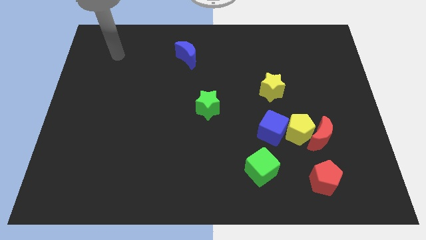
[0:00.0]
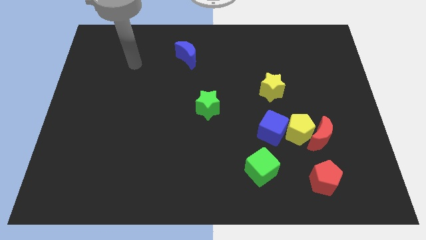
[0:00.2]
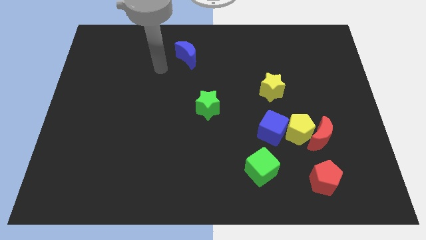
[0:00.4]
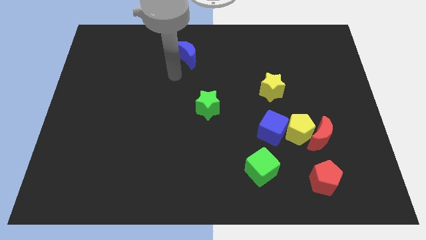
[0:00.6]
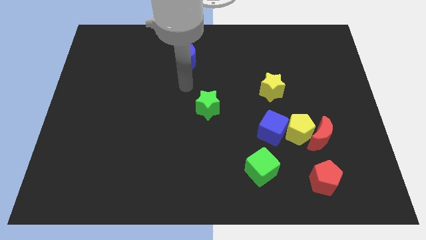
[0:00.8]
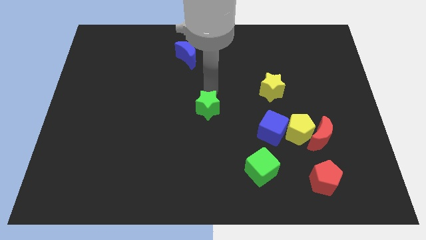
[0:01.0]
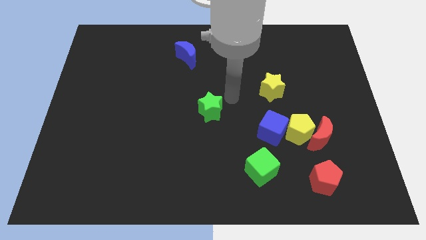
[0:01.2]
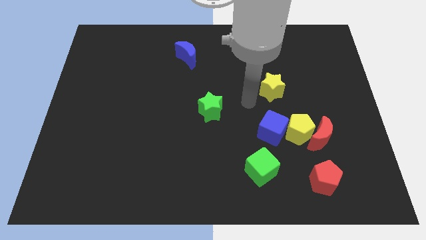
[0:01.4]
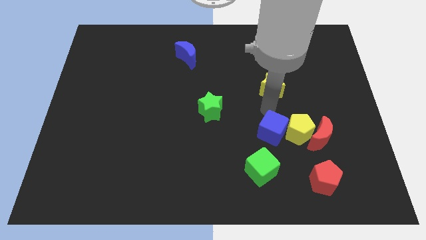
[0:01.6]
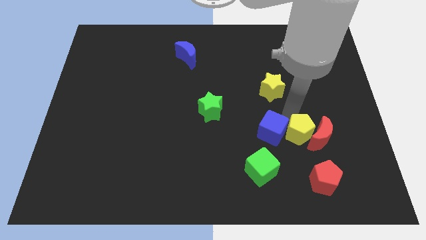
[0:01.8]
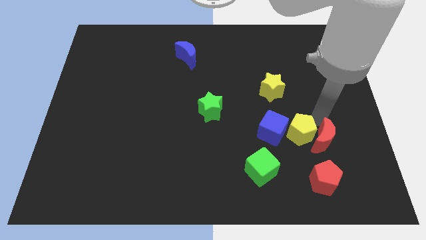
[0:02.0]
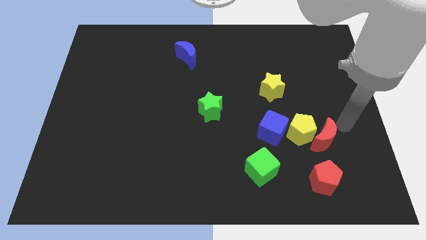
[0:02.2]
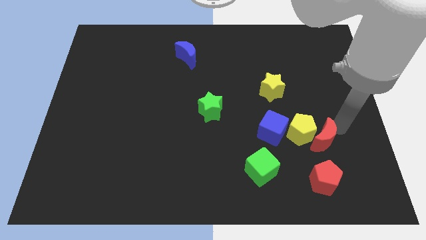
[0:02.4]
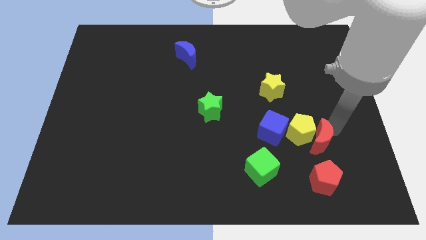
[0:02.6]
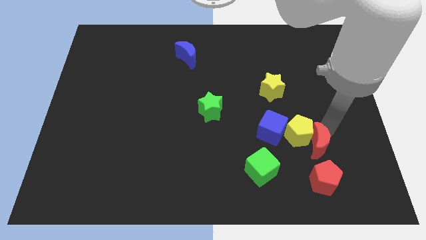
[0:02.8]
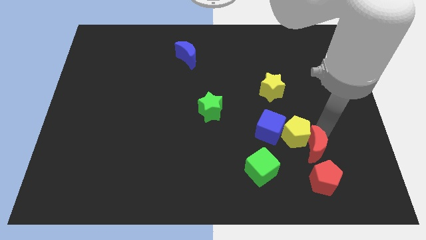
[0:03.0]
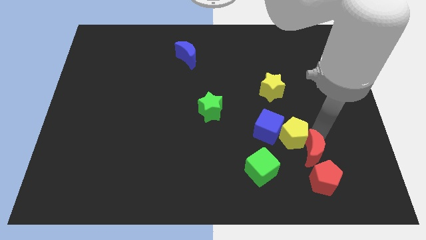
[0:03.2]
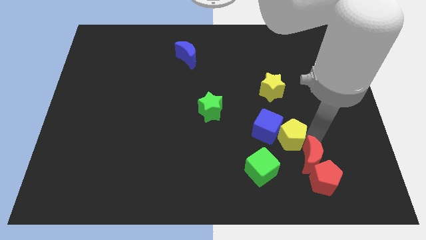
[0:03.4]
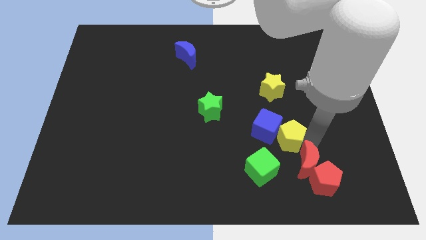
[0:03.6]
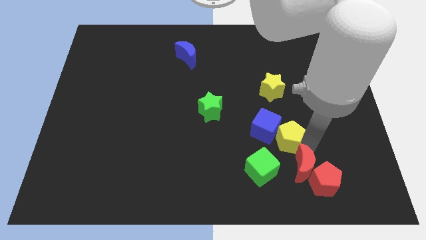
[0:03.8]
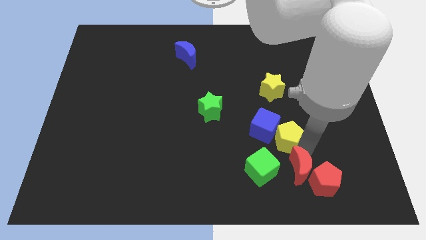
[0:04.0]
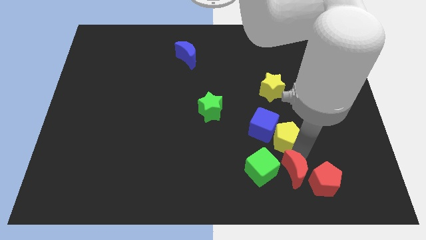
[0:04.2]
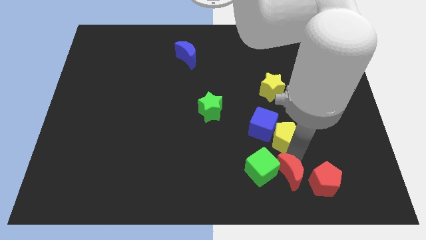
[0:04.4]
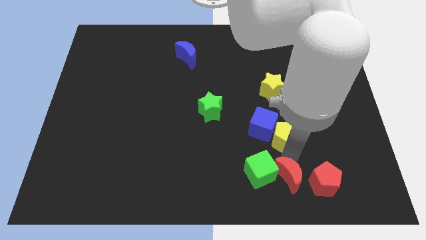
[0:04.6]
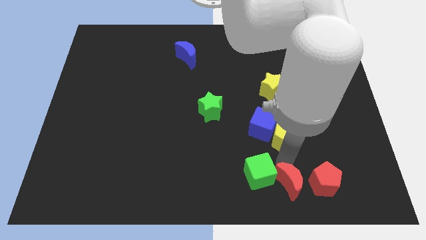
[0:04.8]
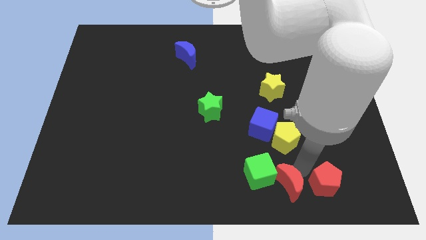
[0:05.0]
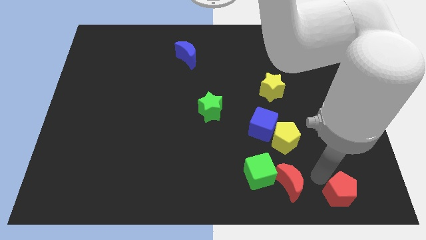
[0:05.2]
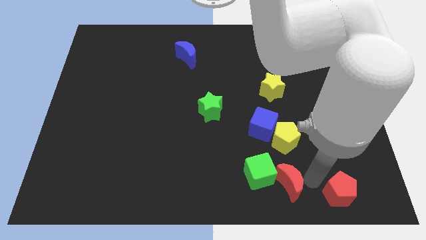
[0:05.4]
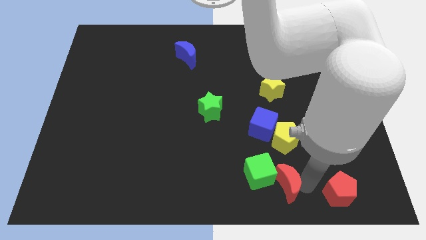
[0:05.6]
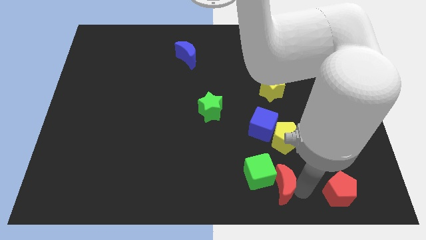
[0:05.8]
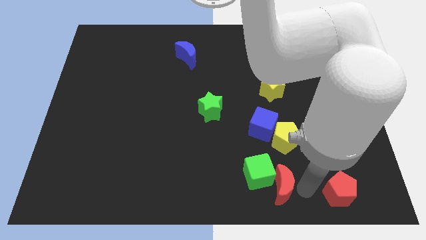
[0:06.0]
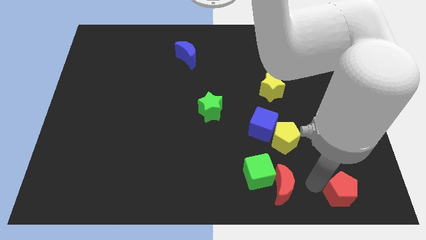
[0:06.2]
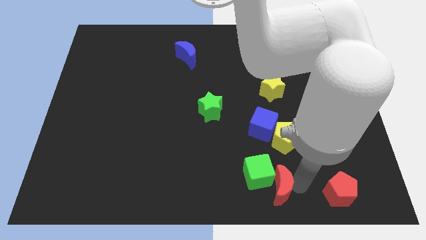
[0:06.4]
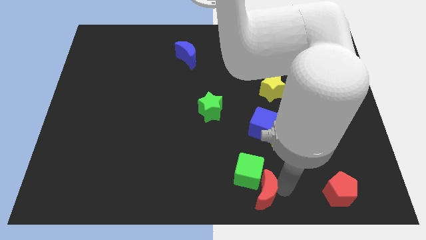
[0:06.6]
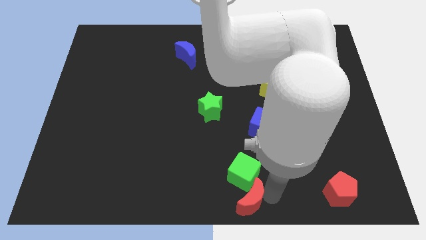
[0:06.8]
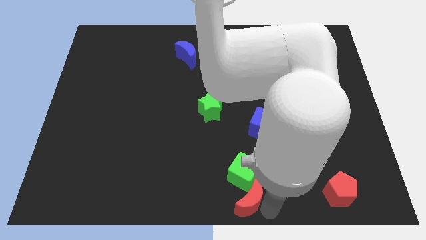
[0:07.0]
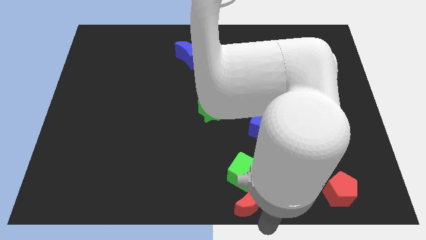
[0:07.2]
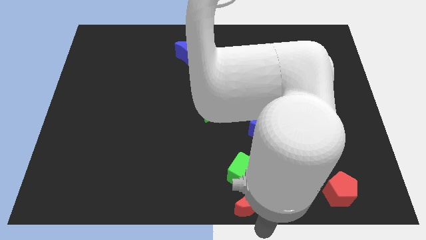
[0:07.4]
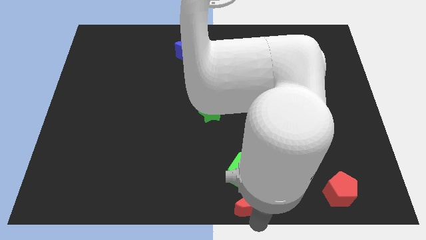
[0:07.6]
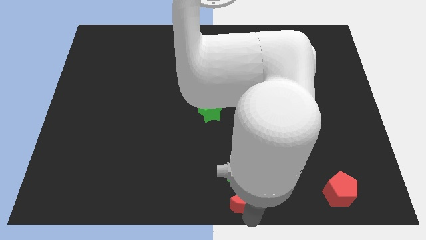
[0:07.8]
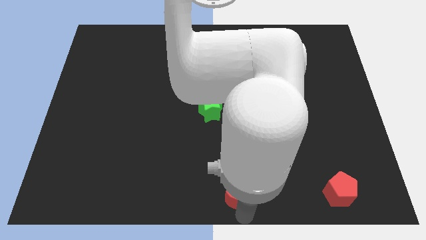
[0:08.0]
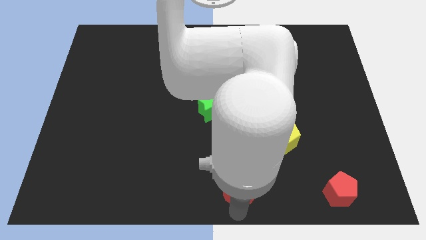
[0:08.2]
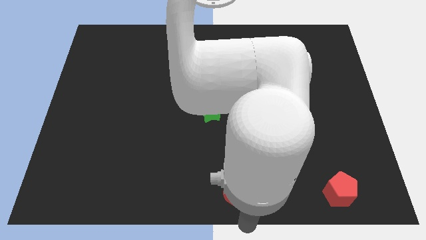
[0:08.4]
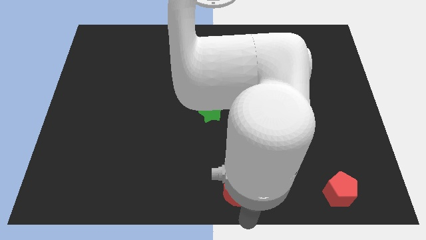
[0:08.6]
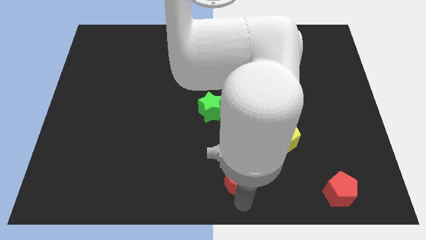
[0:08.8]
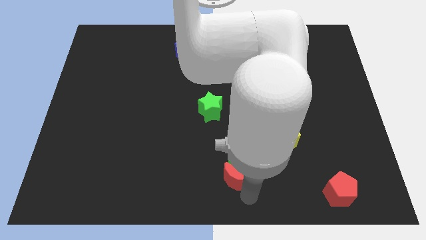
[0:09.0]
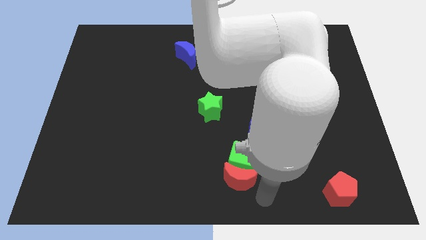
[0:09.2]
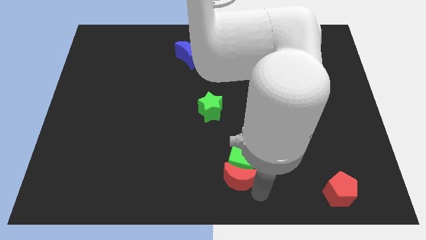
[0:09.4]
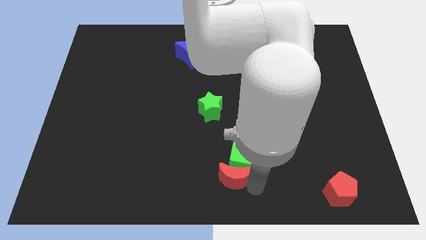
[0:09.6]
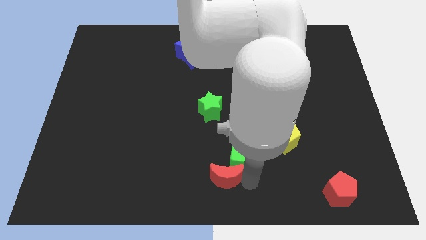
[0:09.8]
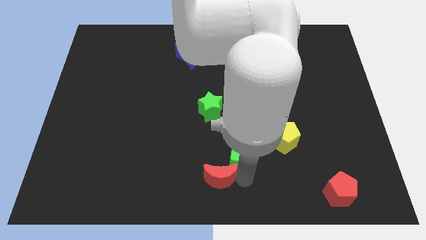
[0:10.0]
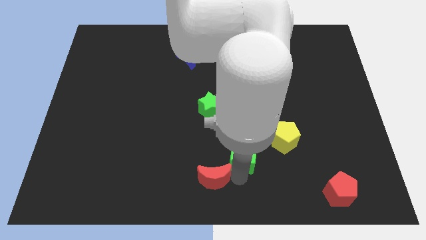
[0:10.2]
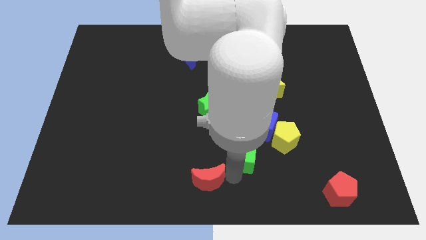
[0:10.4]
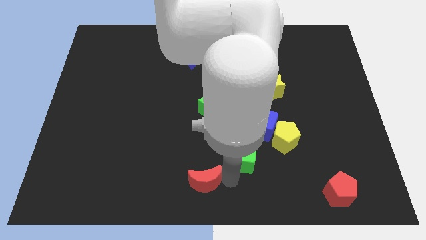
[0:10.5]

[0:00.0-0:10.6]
slide the red moon left

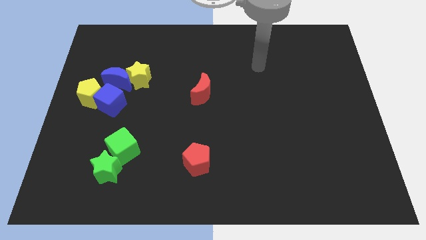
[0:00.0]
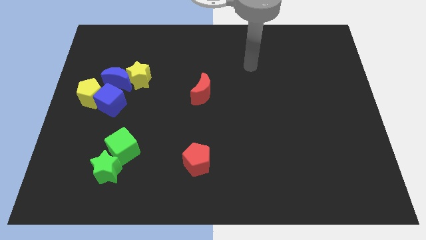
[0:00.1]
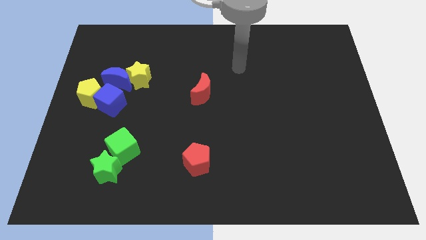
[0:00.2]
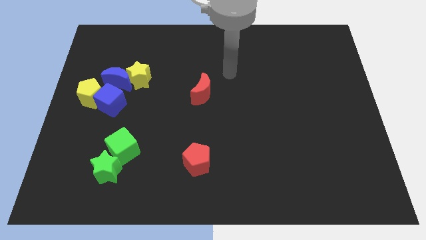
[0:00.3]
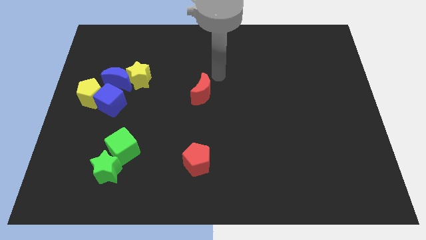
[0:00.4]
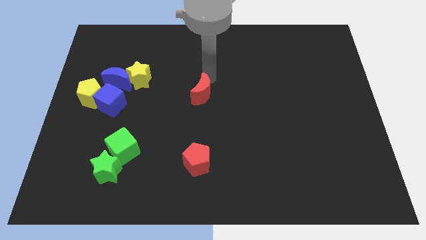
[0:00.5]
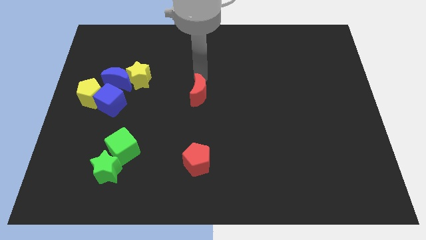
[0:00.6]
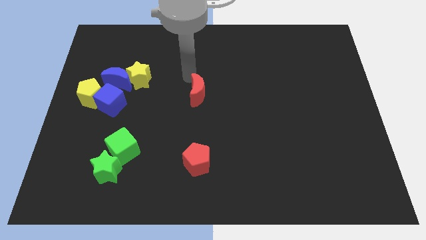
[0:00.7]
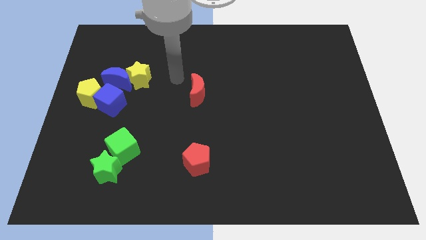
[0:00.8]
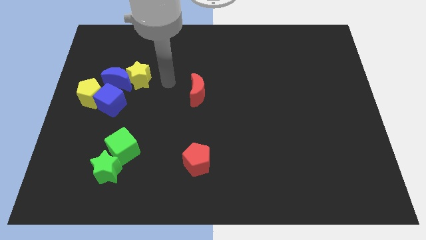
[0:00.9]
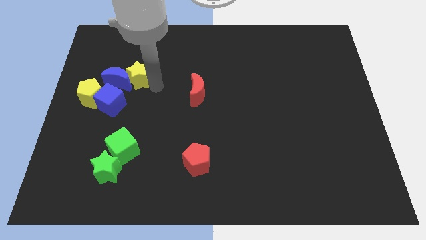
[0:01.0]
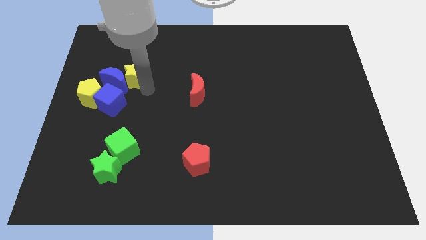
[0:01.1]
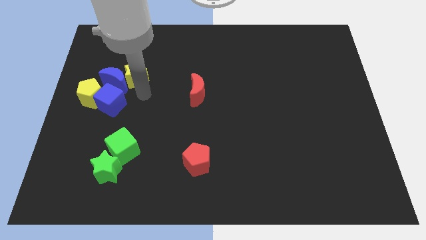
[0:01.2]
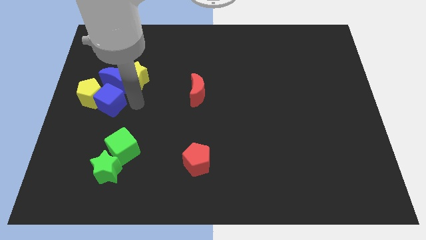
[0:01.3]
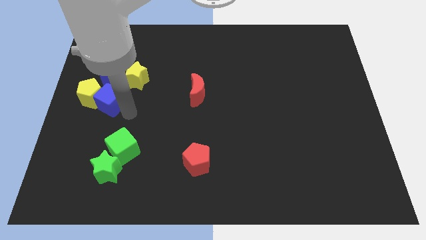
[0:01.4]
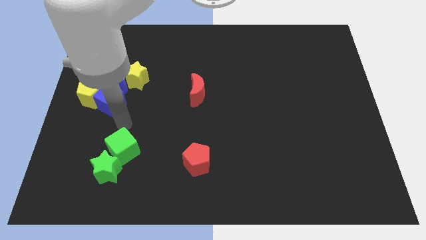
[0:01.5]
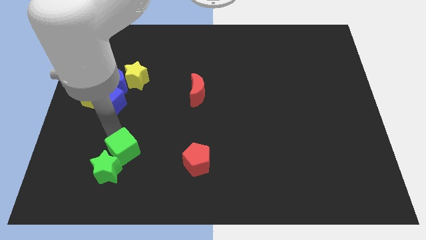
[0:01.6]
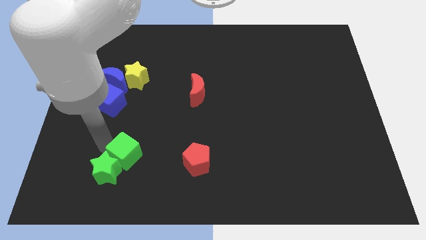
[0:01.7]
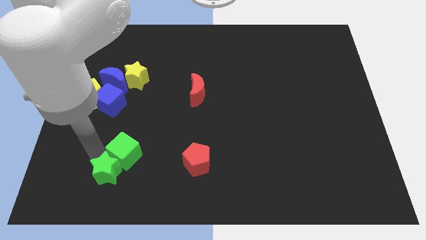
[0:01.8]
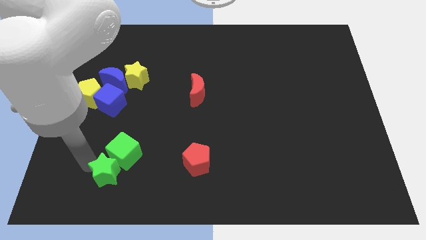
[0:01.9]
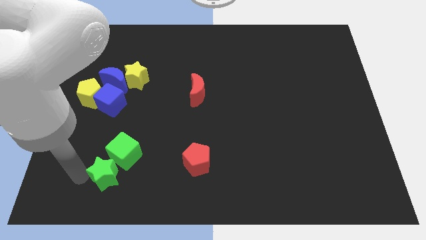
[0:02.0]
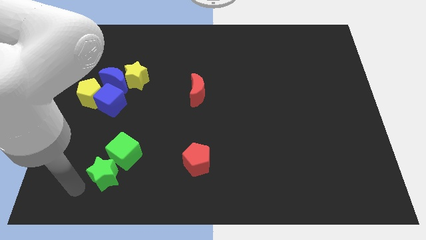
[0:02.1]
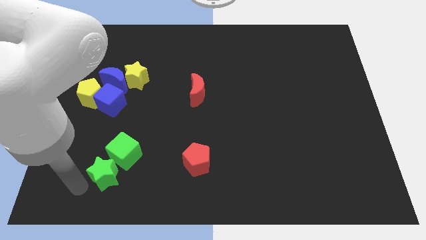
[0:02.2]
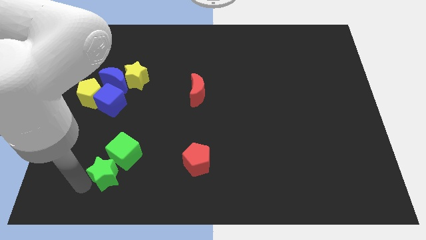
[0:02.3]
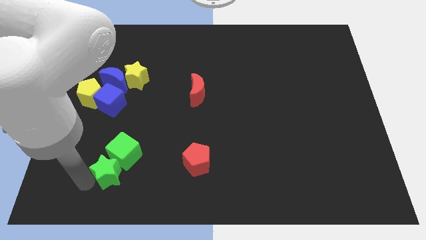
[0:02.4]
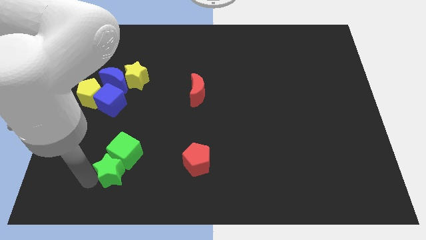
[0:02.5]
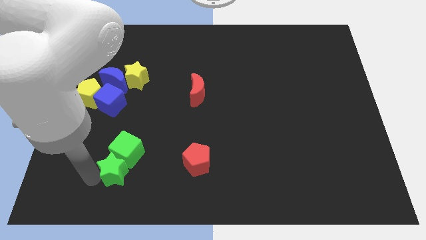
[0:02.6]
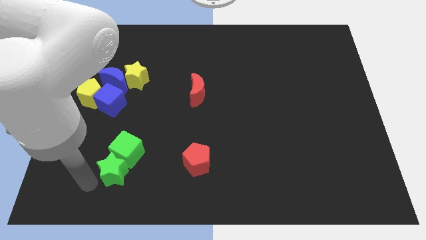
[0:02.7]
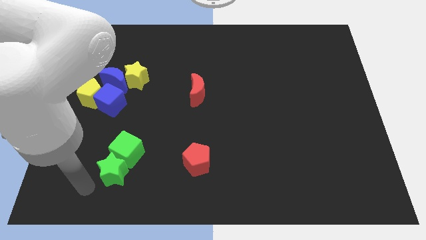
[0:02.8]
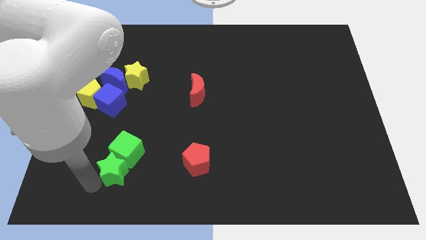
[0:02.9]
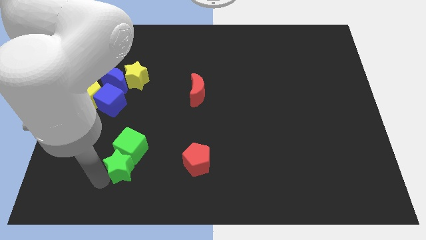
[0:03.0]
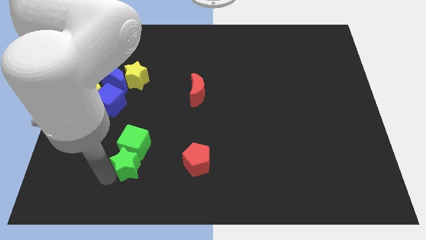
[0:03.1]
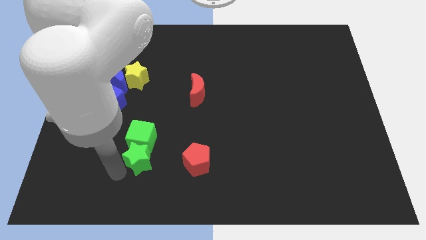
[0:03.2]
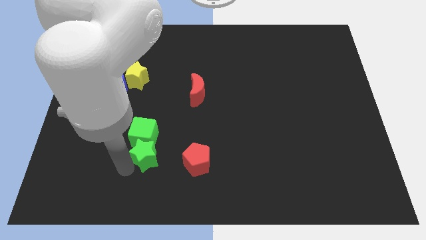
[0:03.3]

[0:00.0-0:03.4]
push the green star upwards and right a little bit
